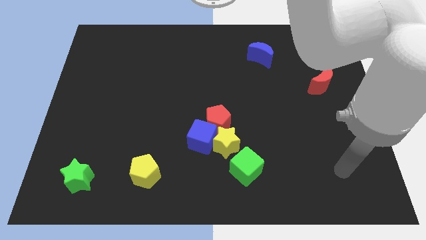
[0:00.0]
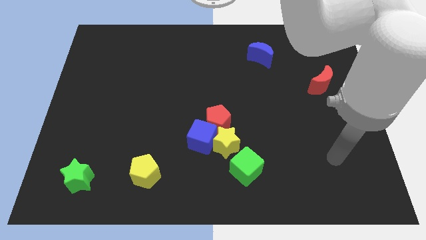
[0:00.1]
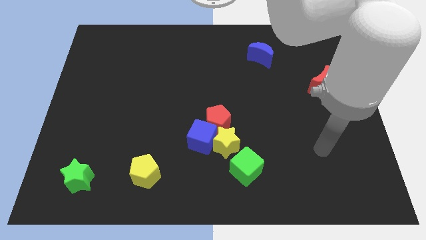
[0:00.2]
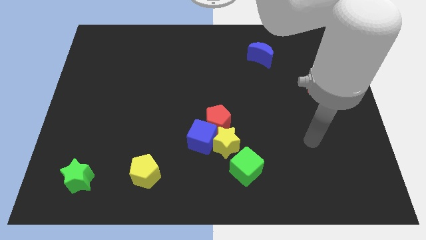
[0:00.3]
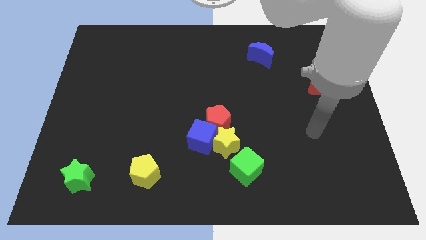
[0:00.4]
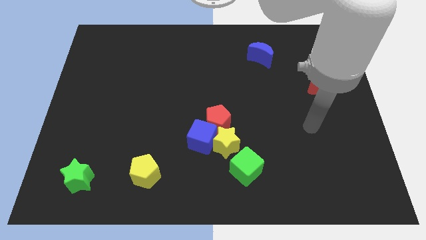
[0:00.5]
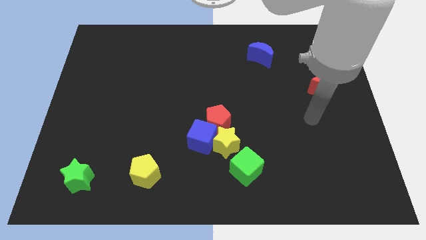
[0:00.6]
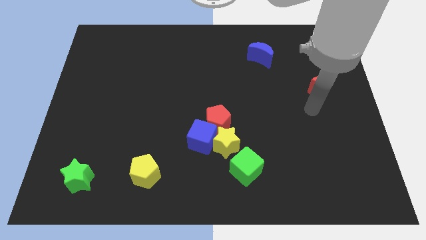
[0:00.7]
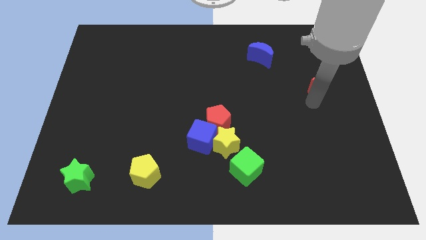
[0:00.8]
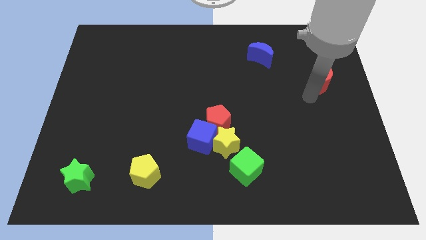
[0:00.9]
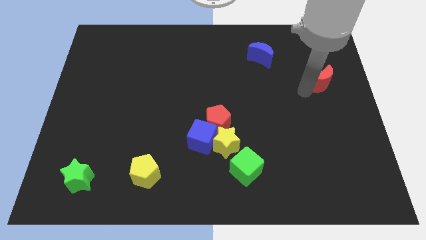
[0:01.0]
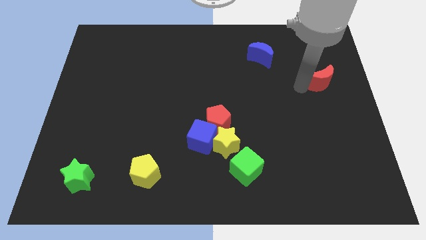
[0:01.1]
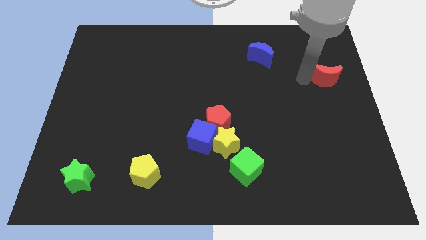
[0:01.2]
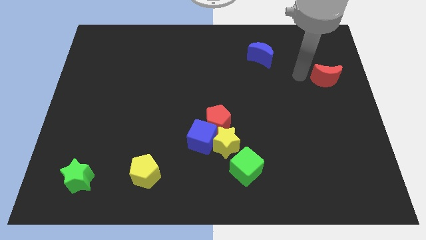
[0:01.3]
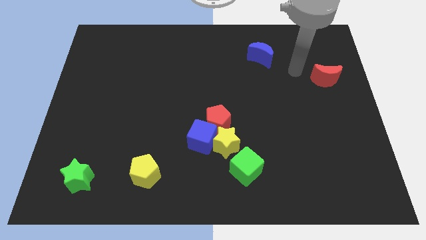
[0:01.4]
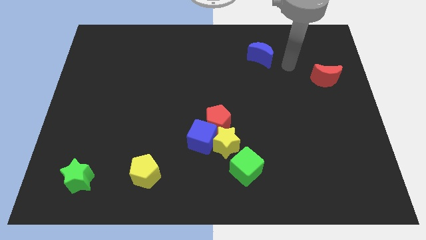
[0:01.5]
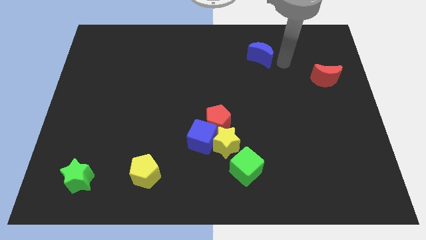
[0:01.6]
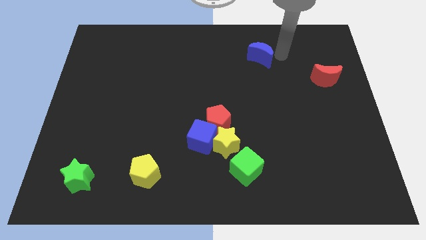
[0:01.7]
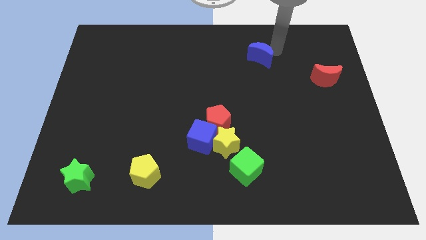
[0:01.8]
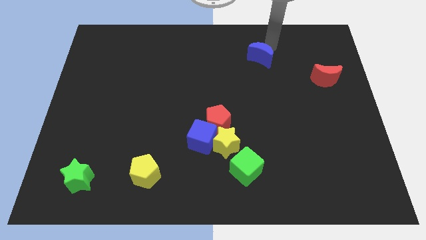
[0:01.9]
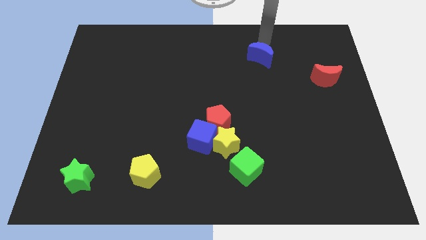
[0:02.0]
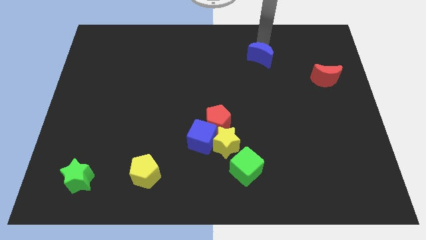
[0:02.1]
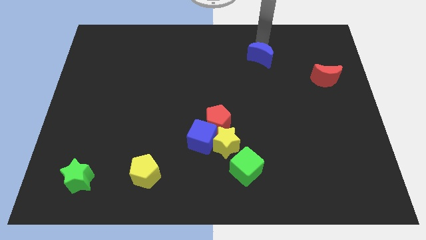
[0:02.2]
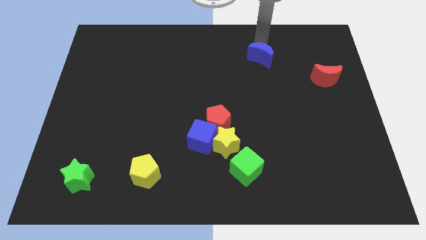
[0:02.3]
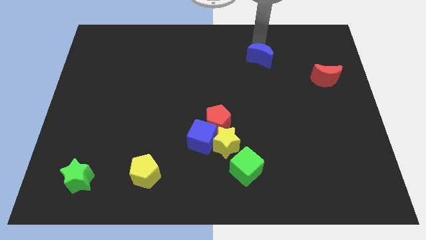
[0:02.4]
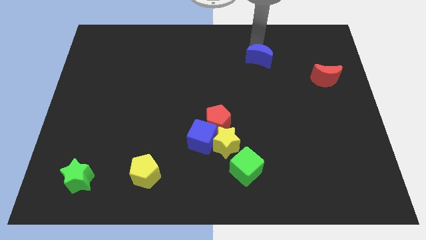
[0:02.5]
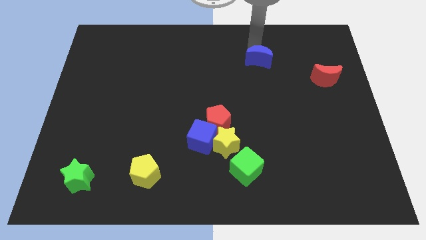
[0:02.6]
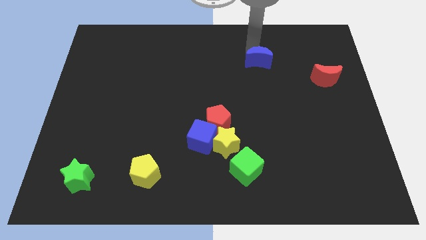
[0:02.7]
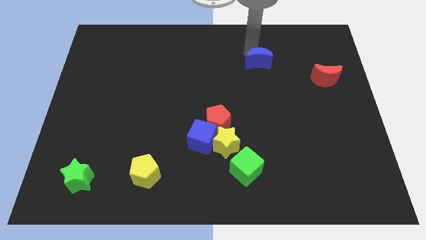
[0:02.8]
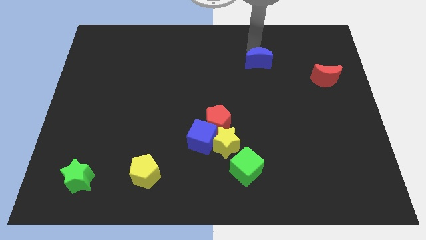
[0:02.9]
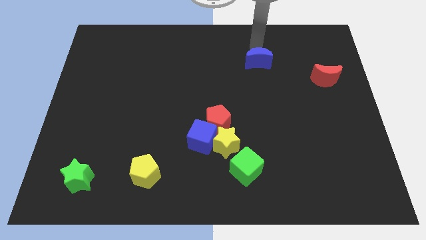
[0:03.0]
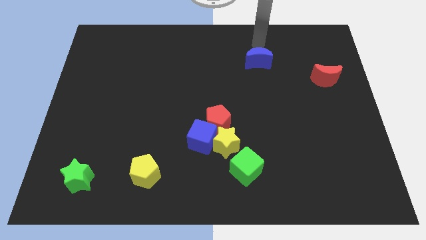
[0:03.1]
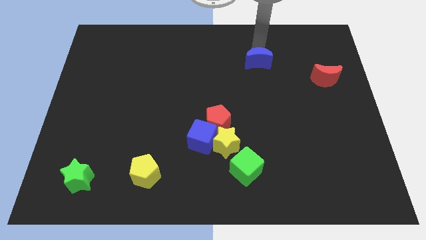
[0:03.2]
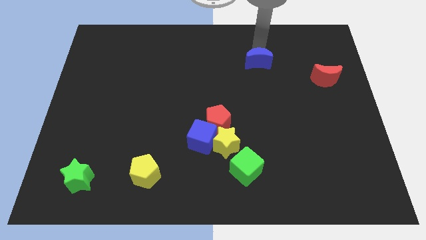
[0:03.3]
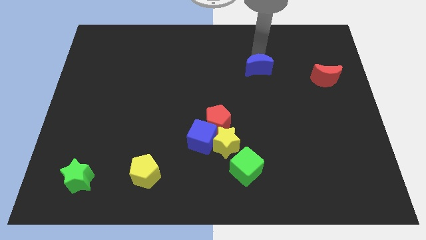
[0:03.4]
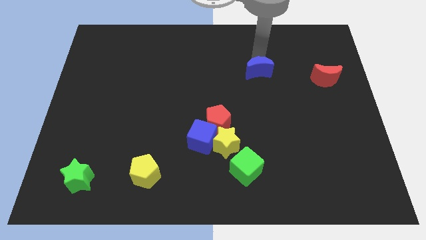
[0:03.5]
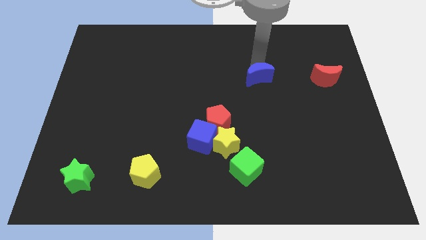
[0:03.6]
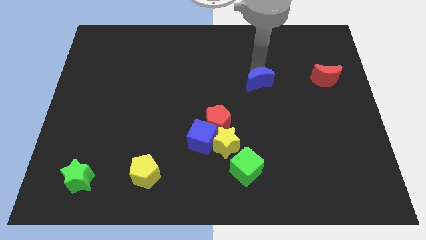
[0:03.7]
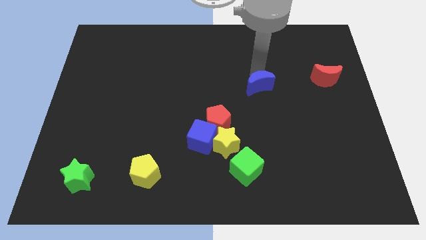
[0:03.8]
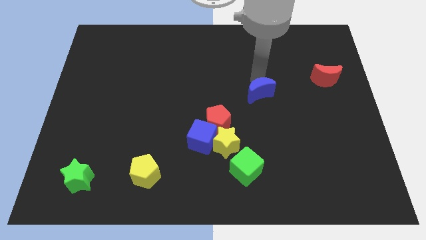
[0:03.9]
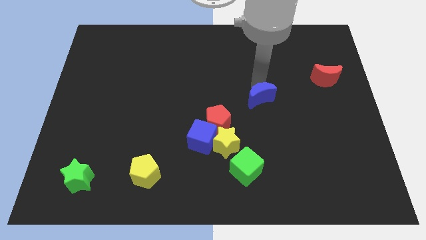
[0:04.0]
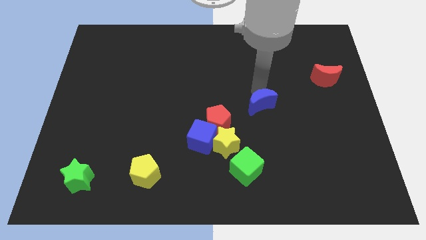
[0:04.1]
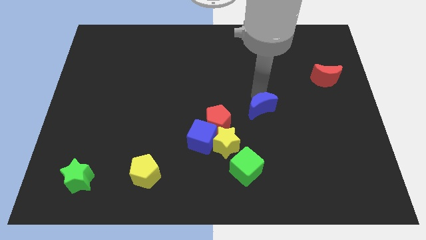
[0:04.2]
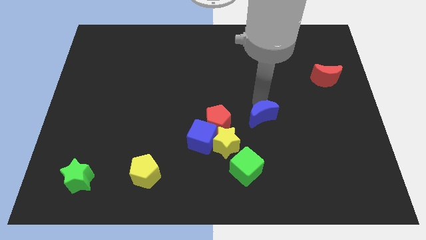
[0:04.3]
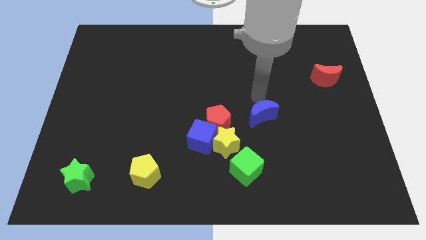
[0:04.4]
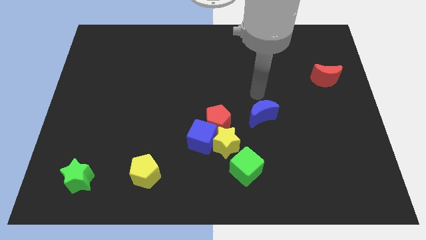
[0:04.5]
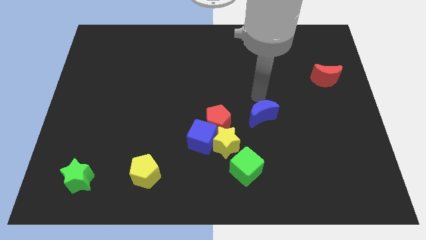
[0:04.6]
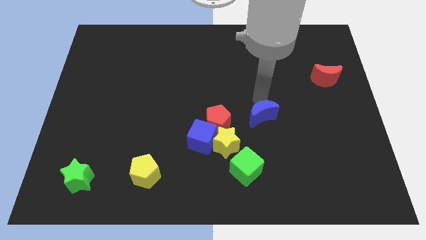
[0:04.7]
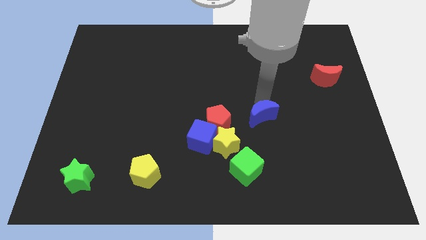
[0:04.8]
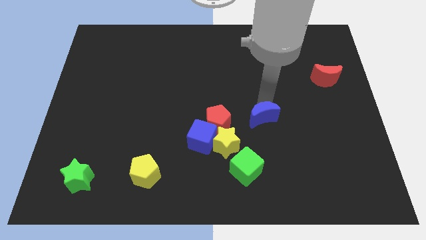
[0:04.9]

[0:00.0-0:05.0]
move the blue moon down

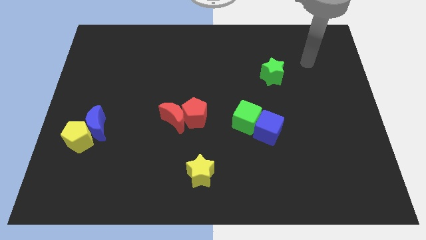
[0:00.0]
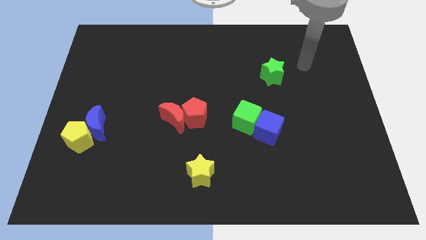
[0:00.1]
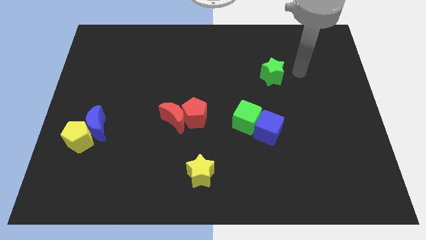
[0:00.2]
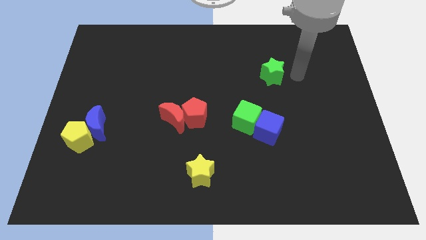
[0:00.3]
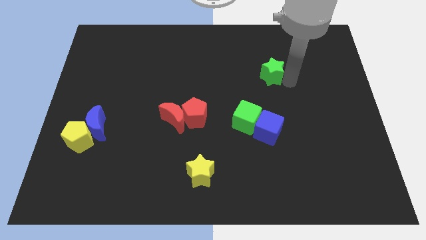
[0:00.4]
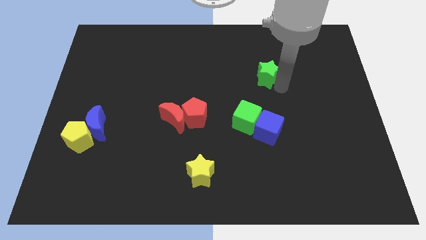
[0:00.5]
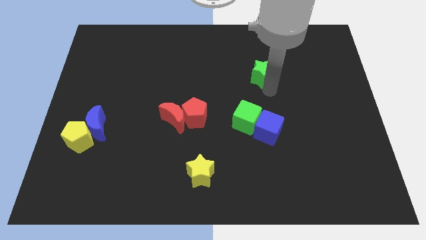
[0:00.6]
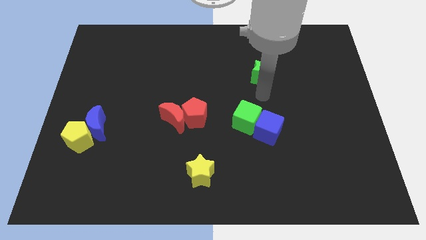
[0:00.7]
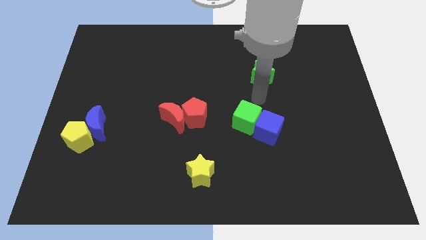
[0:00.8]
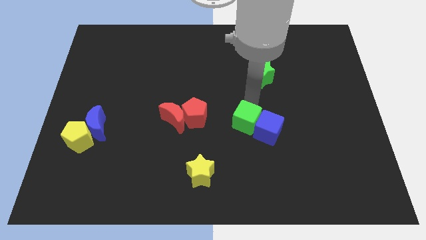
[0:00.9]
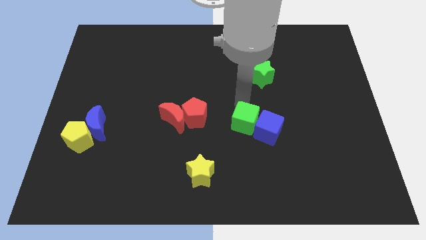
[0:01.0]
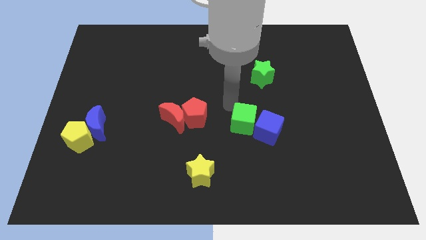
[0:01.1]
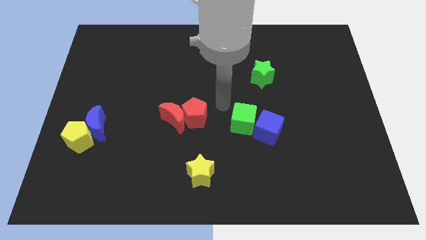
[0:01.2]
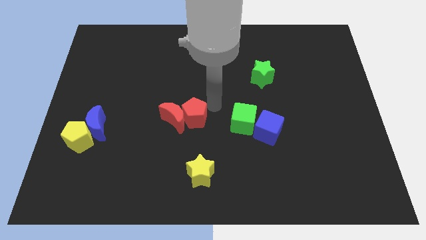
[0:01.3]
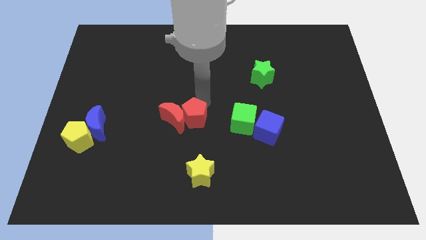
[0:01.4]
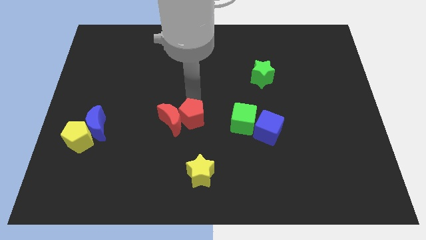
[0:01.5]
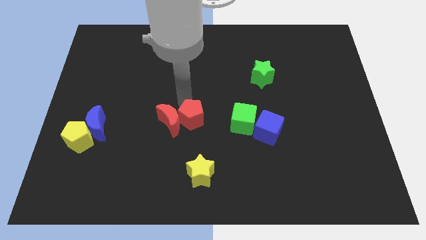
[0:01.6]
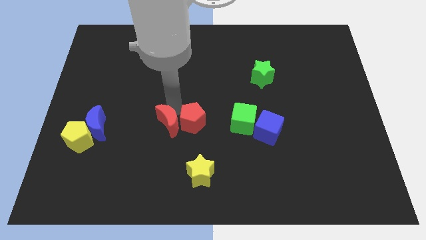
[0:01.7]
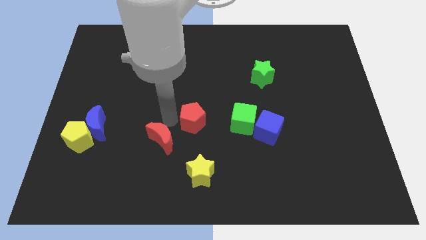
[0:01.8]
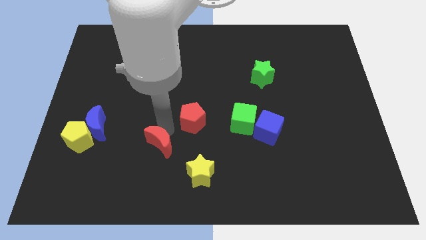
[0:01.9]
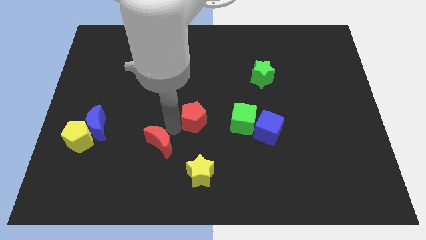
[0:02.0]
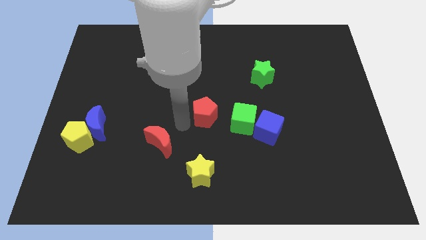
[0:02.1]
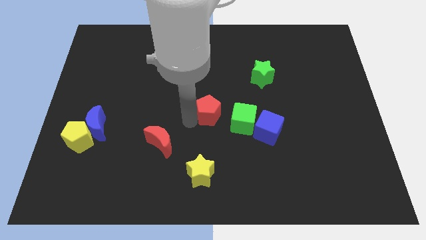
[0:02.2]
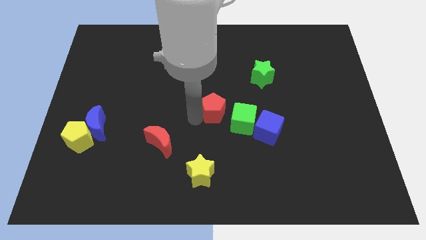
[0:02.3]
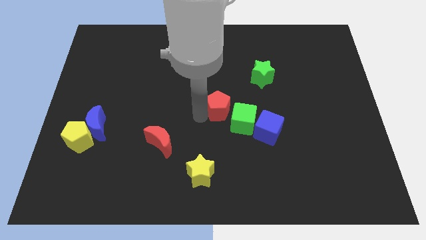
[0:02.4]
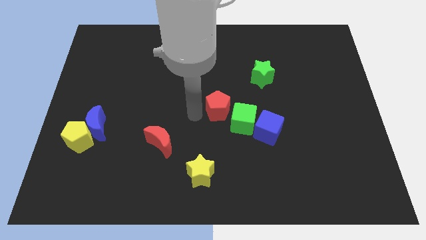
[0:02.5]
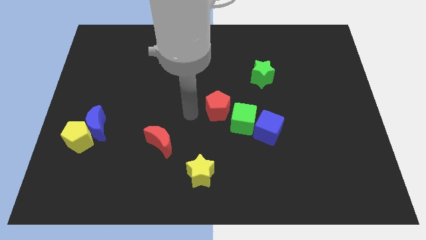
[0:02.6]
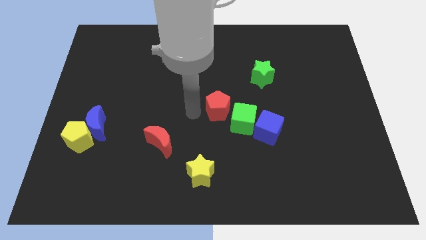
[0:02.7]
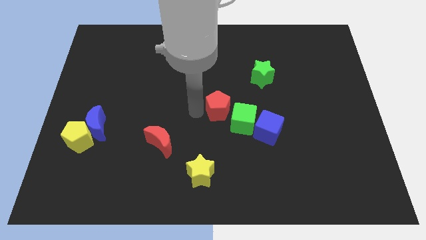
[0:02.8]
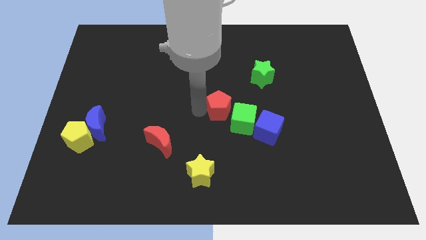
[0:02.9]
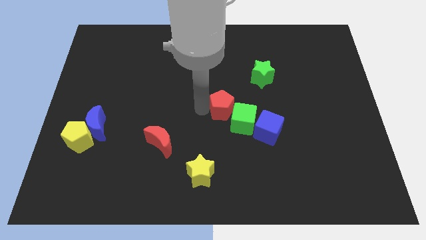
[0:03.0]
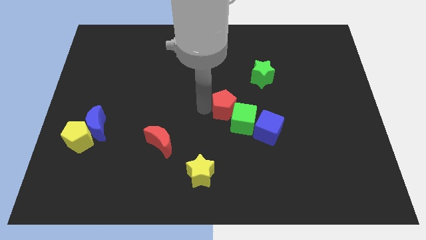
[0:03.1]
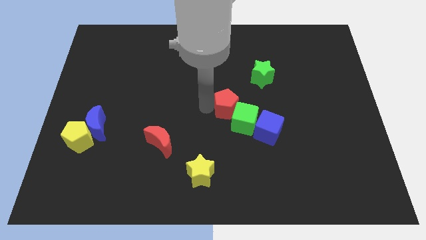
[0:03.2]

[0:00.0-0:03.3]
slide the red pentagon somewhat to the right

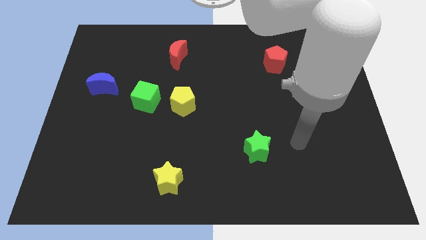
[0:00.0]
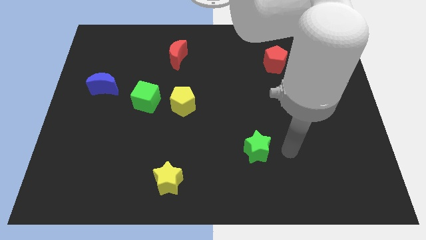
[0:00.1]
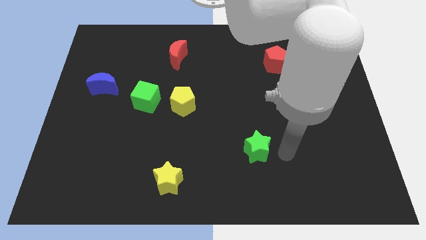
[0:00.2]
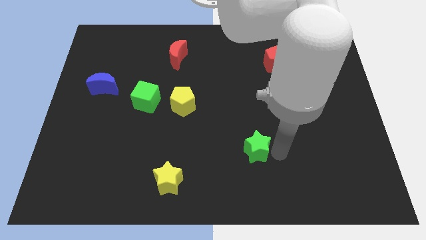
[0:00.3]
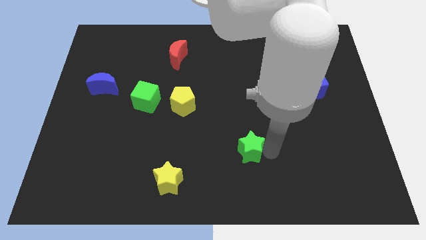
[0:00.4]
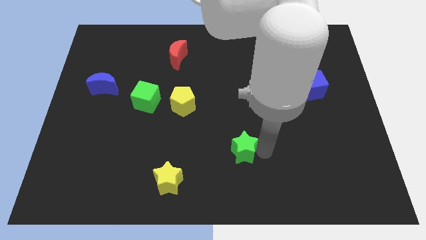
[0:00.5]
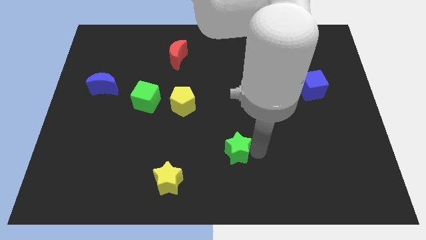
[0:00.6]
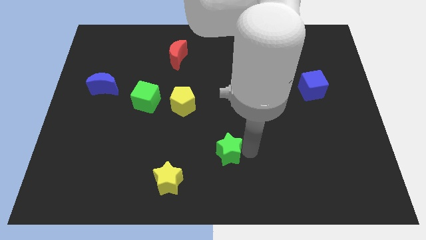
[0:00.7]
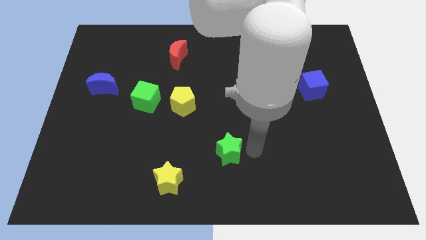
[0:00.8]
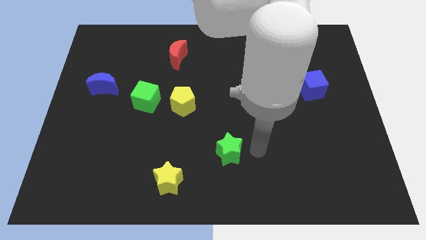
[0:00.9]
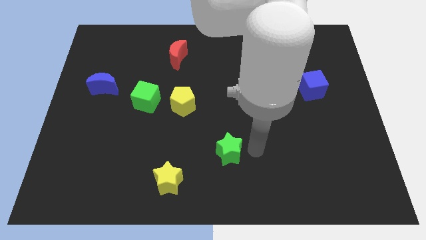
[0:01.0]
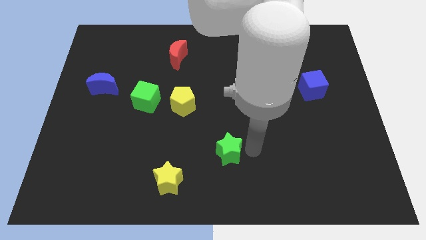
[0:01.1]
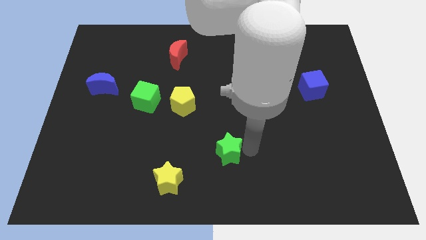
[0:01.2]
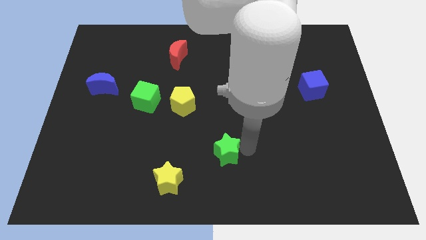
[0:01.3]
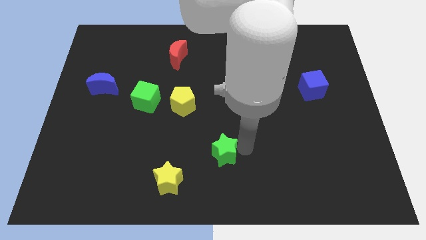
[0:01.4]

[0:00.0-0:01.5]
move the green star to the left a bit
